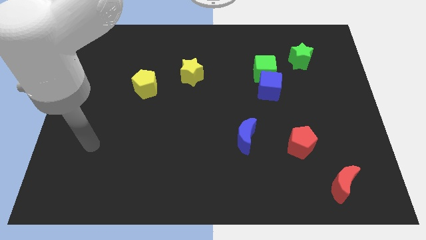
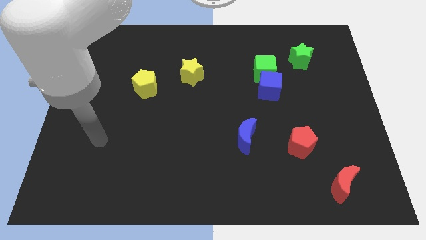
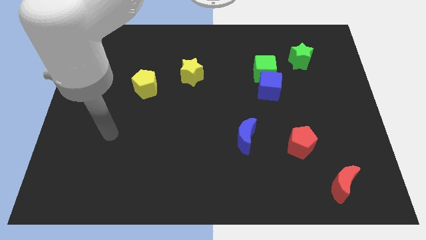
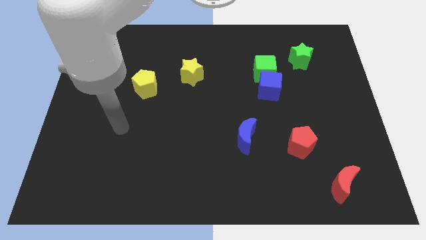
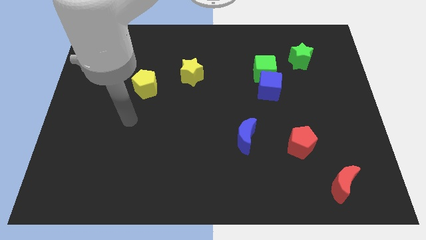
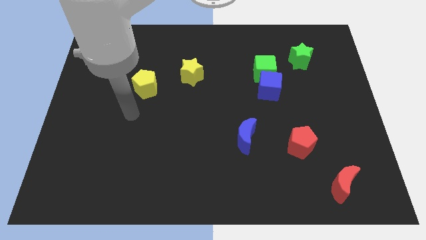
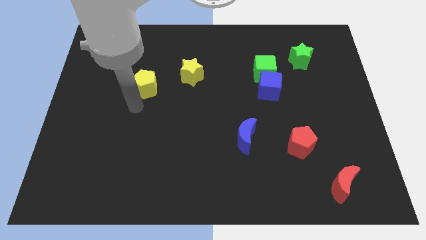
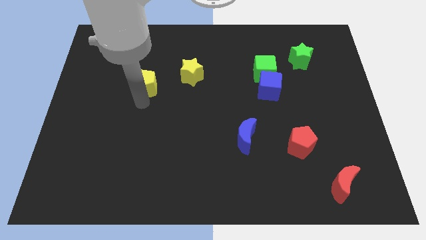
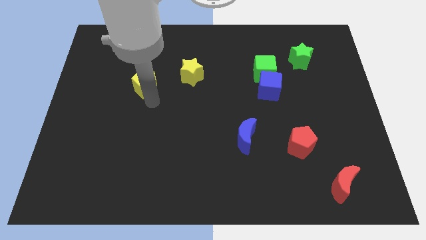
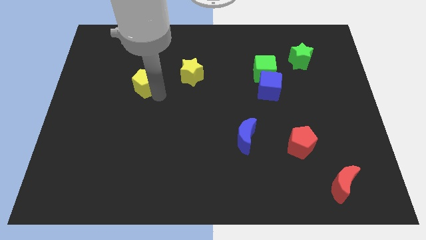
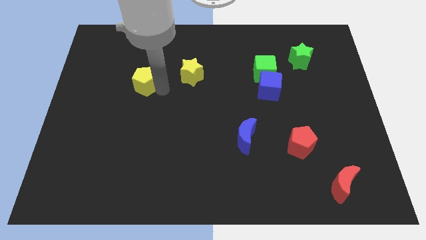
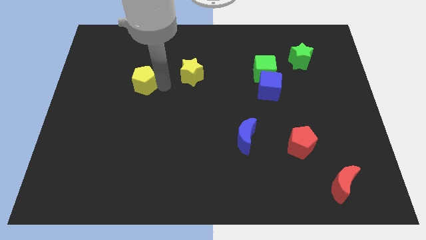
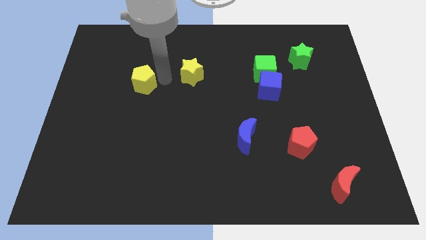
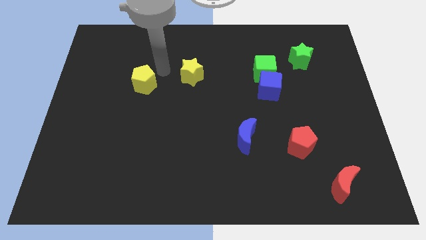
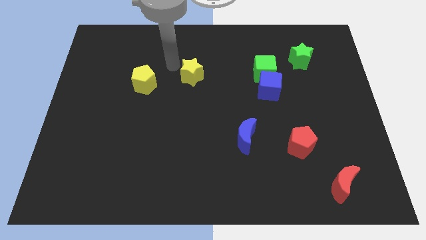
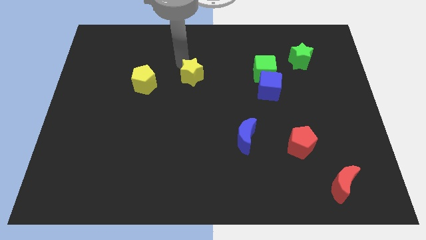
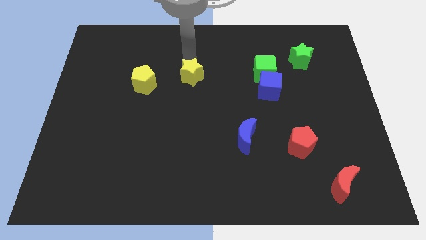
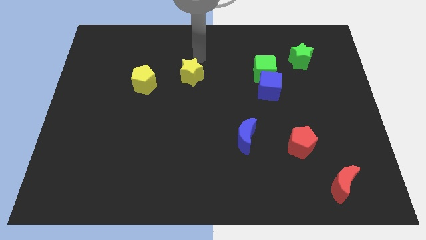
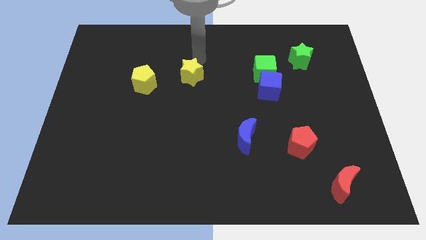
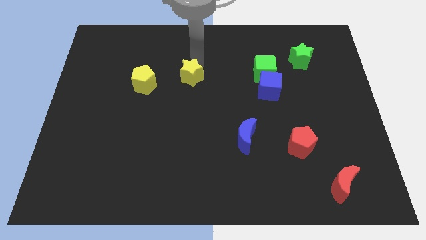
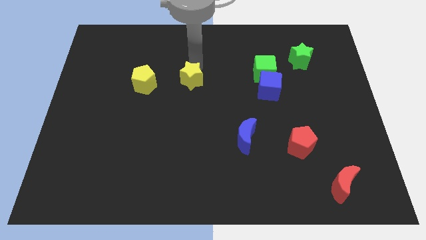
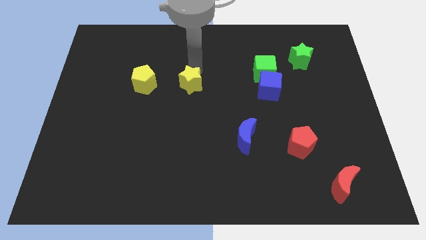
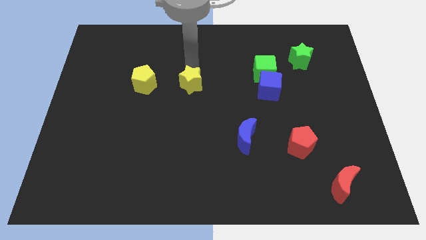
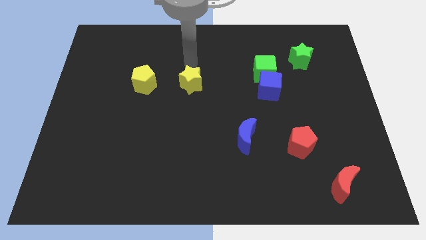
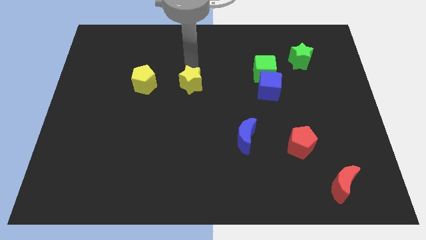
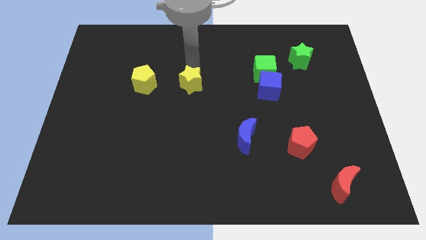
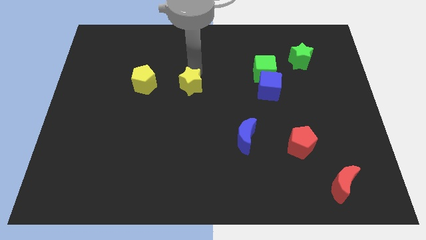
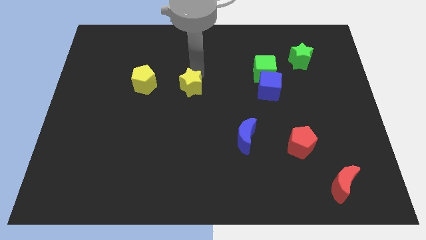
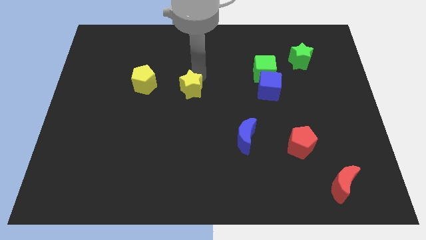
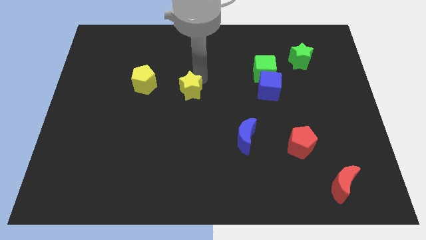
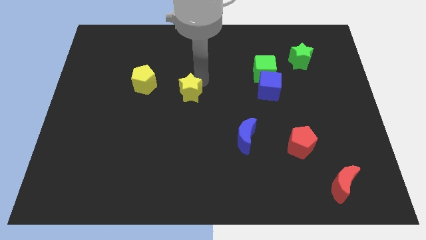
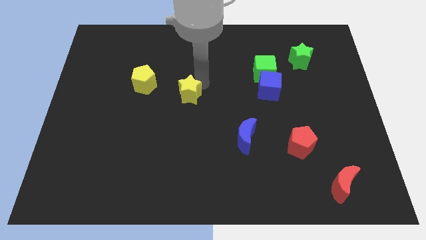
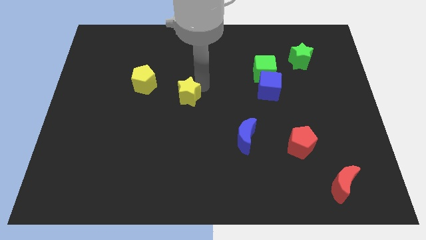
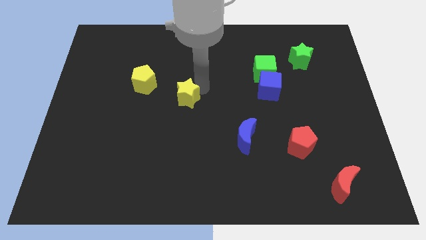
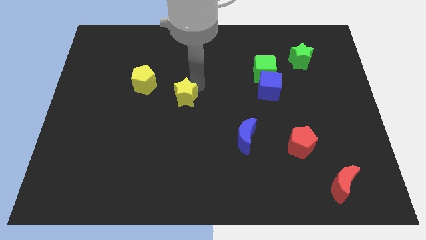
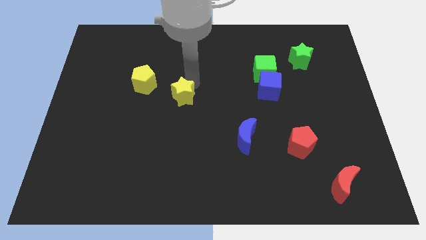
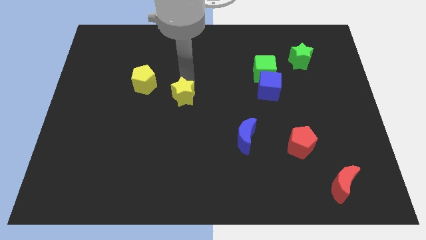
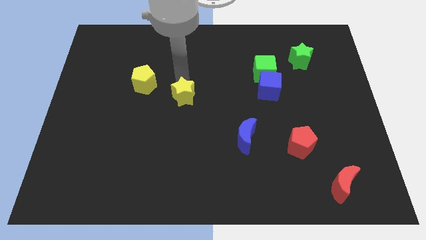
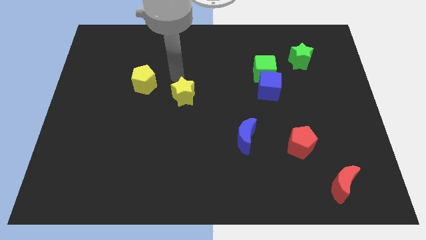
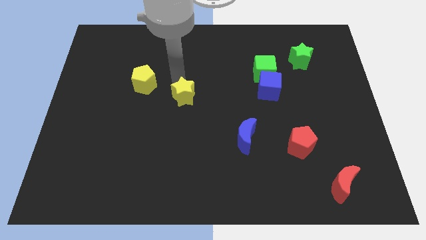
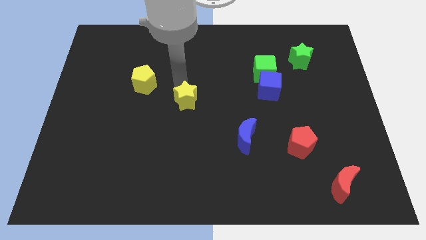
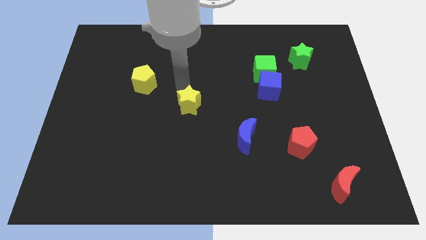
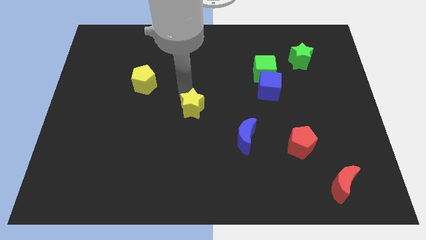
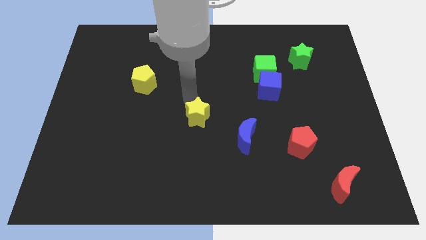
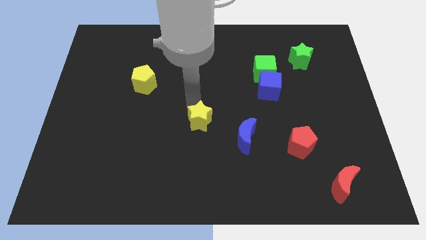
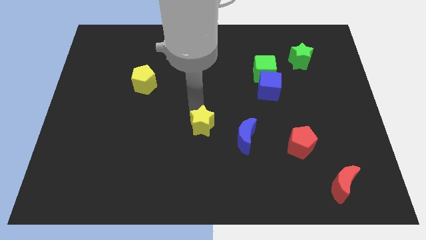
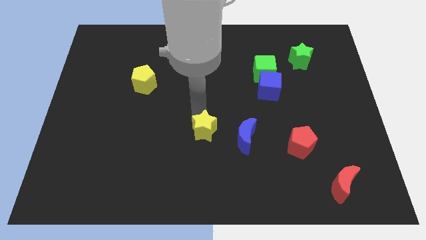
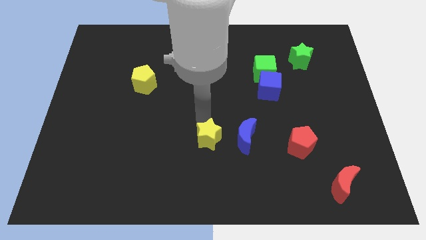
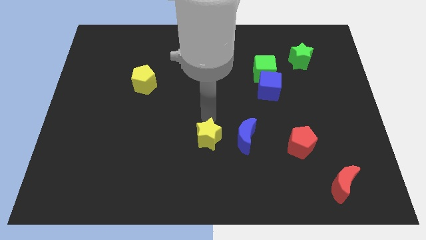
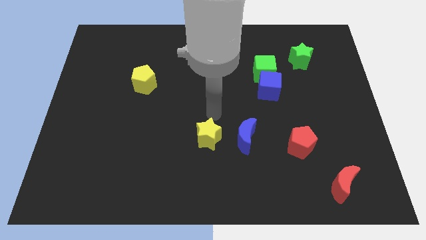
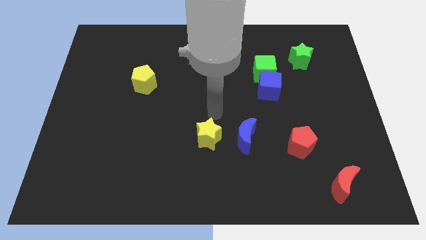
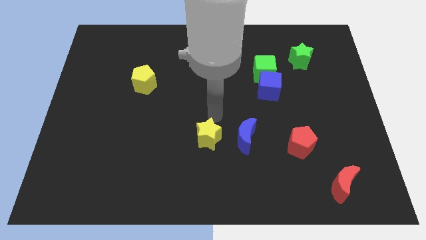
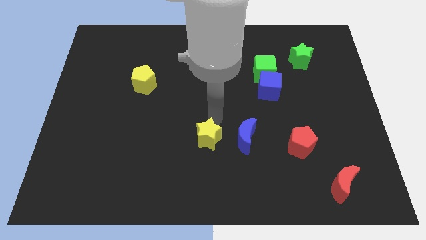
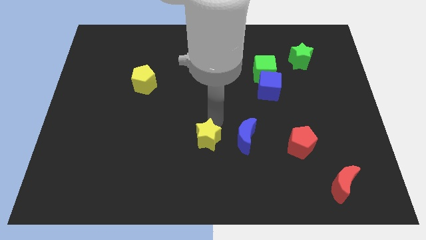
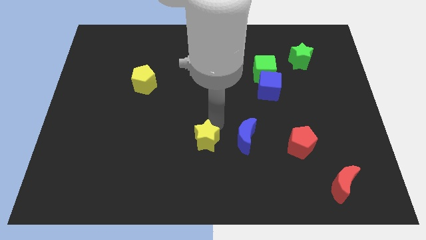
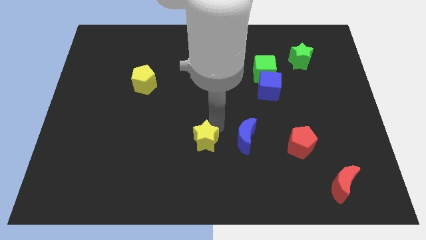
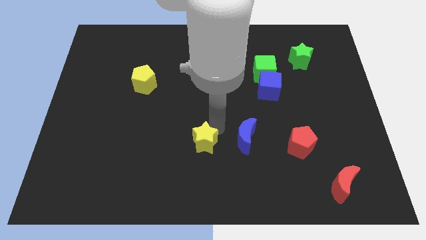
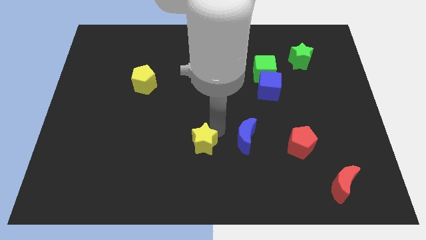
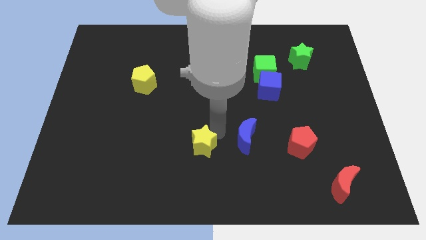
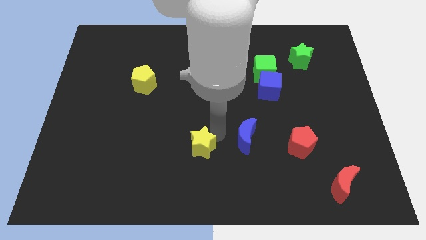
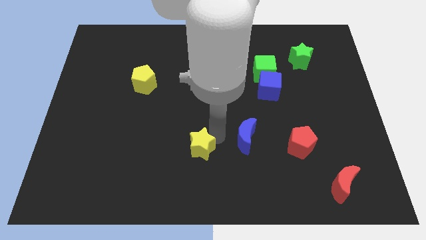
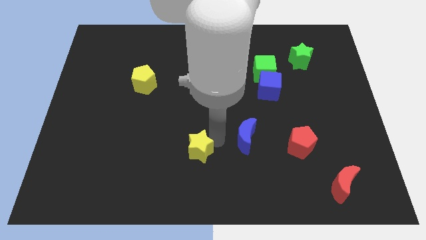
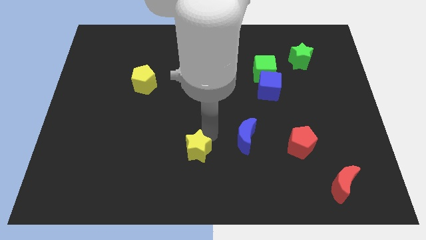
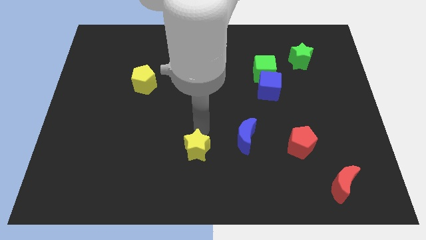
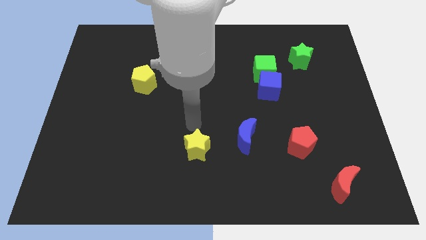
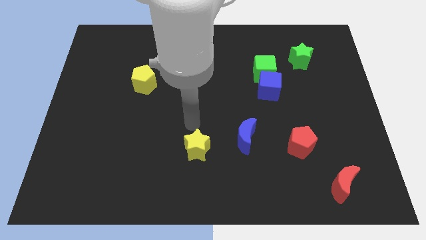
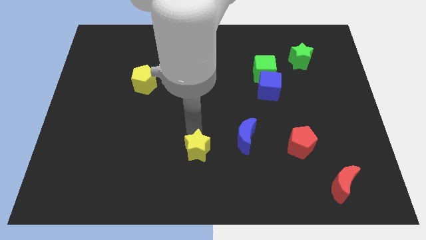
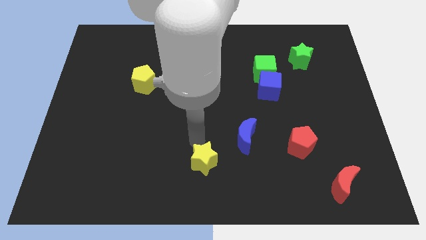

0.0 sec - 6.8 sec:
move the yellow star to the bottom side

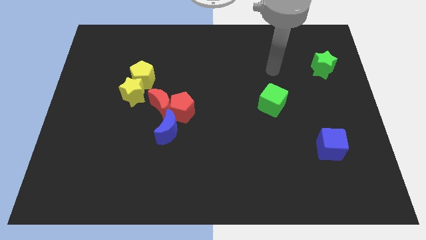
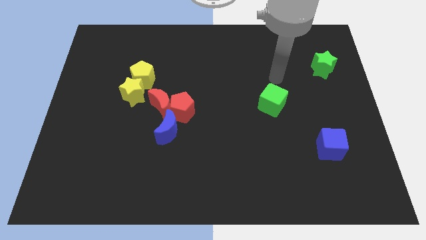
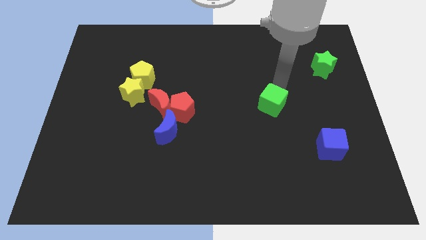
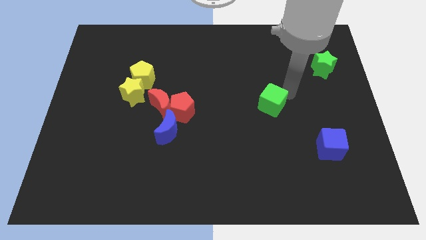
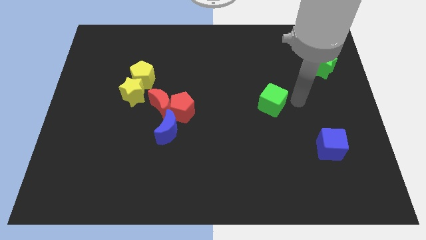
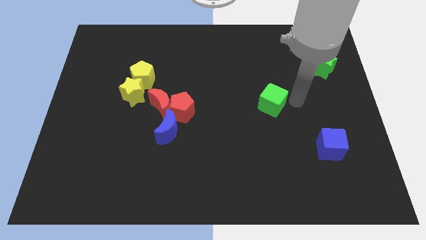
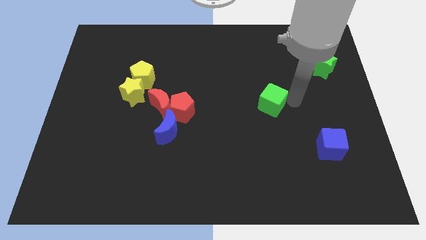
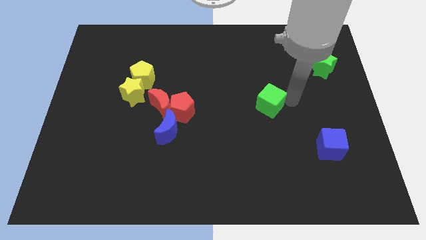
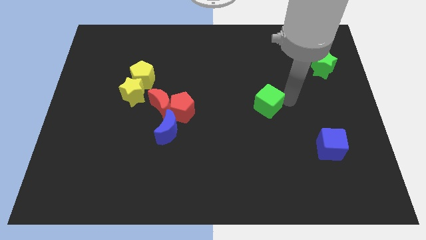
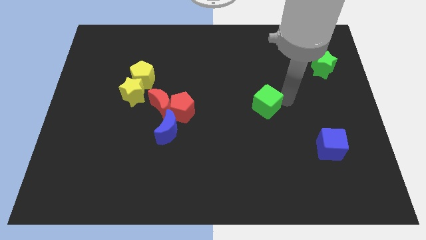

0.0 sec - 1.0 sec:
put the green cube to the middle

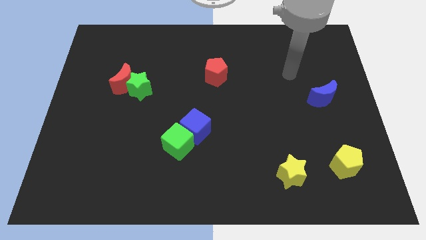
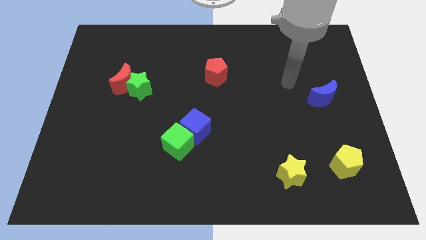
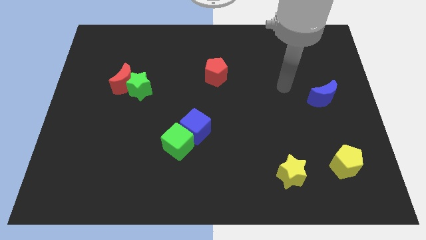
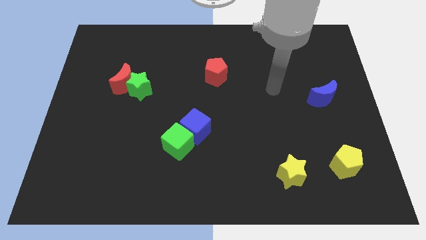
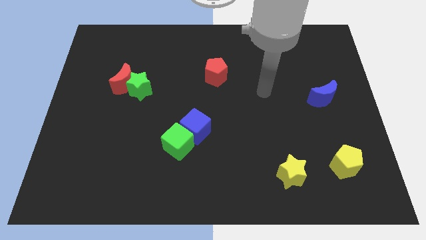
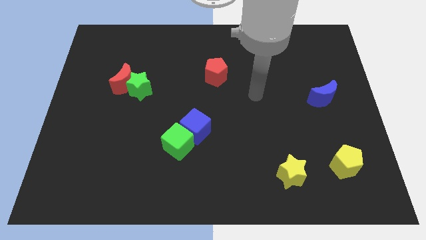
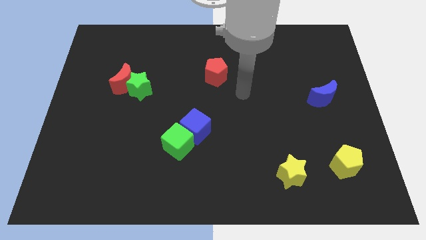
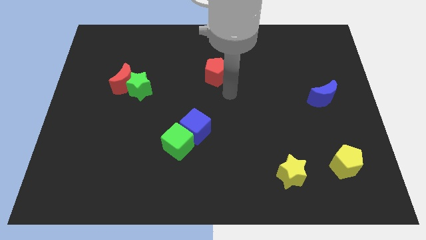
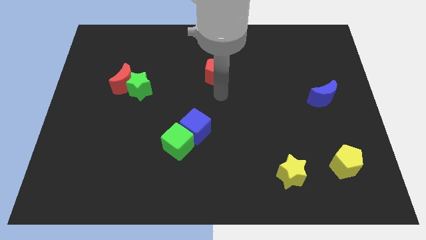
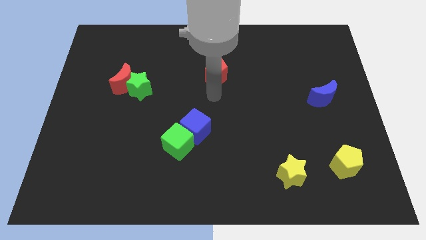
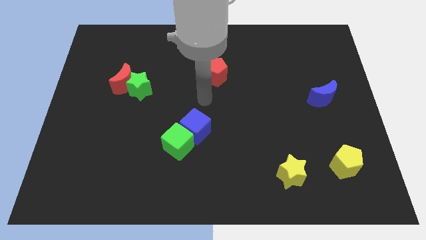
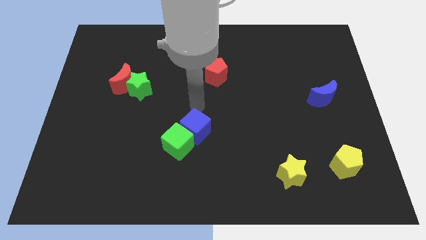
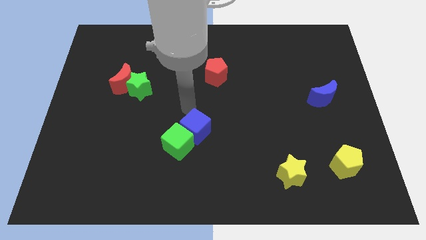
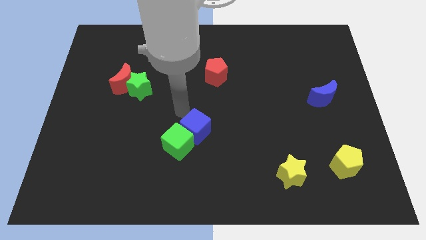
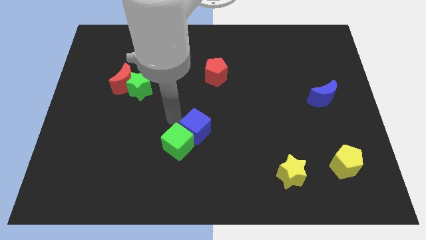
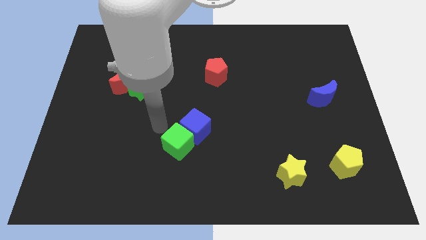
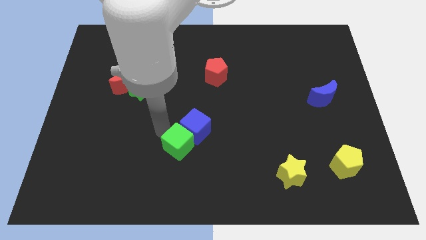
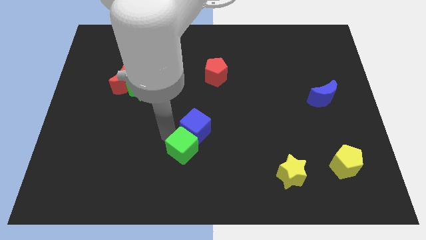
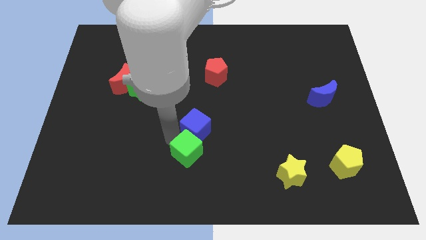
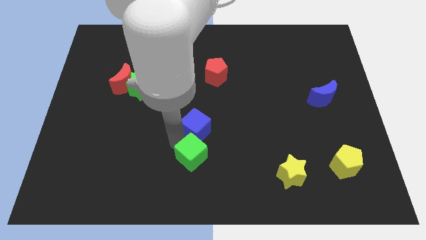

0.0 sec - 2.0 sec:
put the green cube to the bottom side
